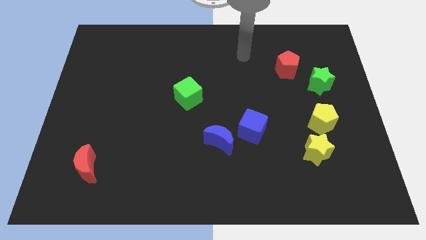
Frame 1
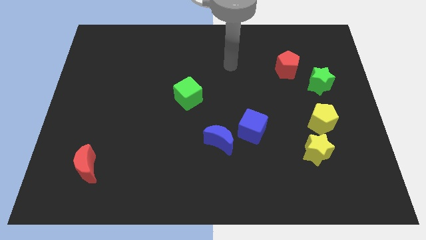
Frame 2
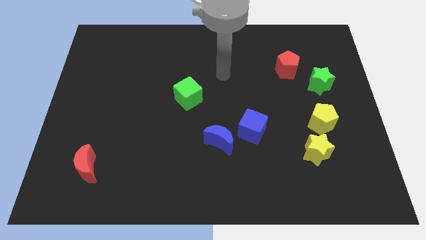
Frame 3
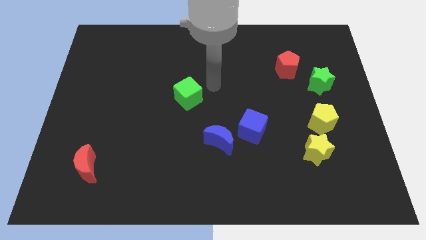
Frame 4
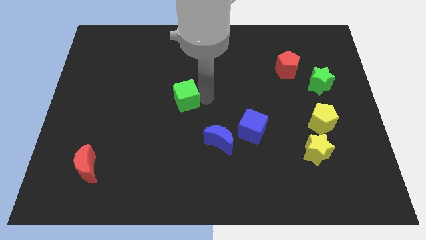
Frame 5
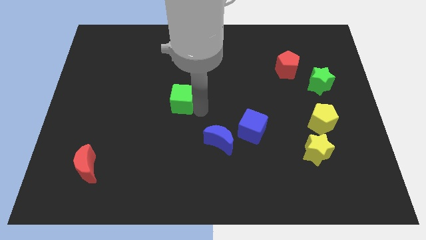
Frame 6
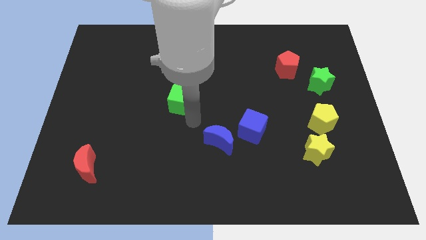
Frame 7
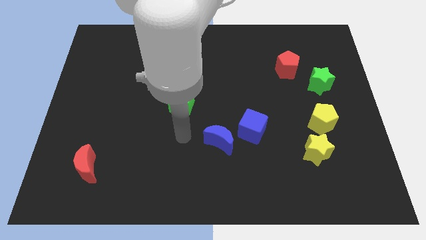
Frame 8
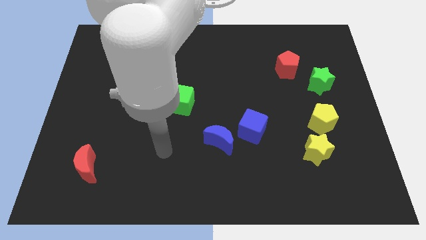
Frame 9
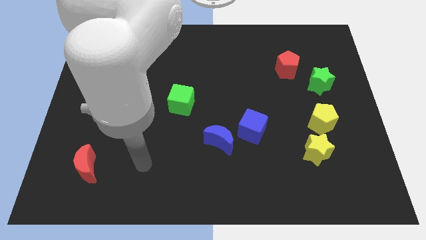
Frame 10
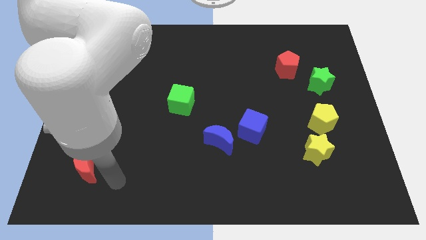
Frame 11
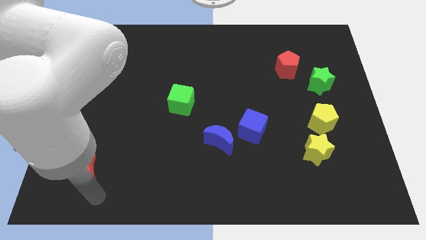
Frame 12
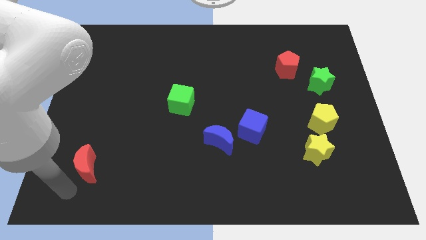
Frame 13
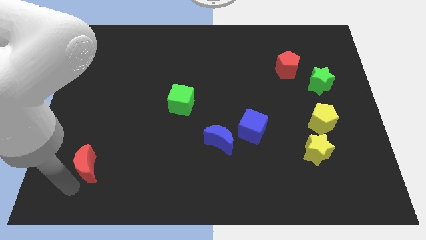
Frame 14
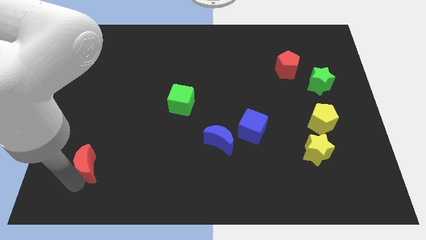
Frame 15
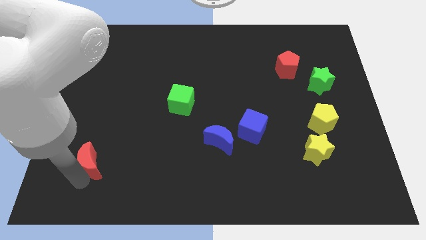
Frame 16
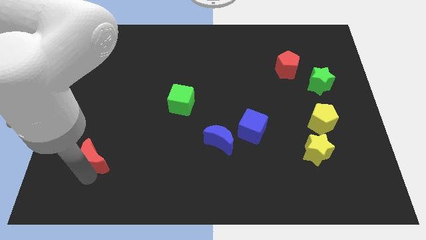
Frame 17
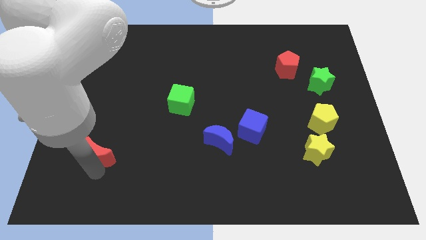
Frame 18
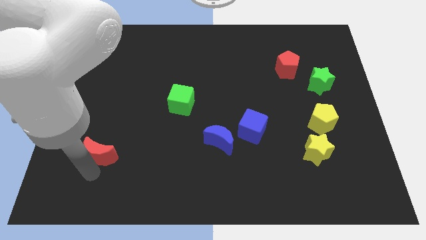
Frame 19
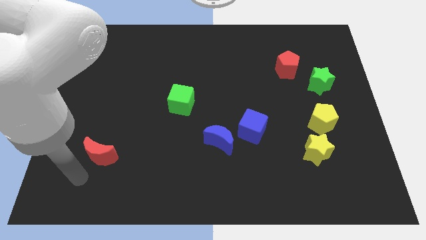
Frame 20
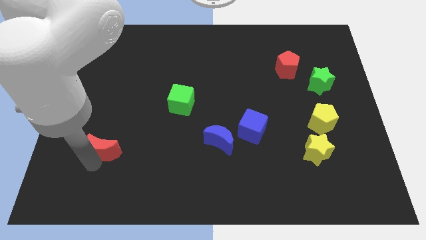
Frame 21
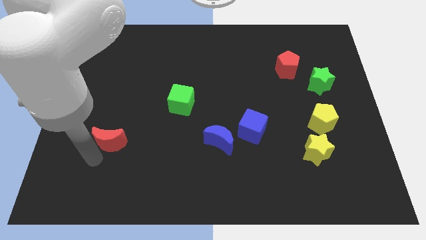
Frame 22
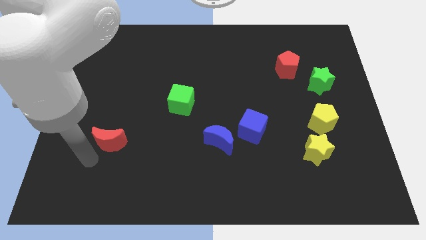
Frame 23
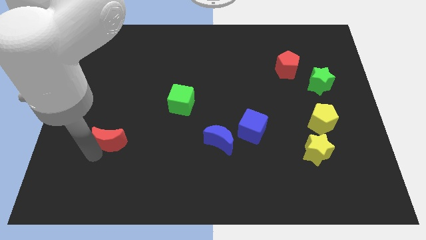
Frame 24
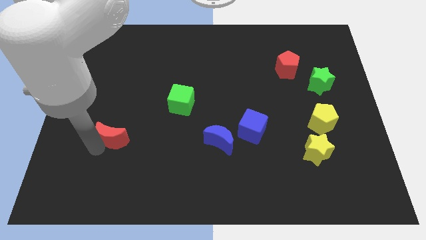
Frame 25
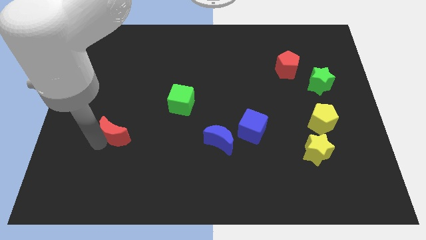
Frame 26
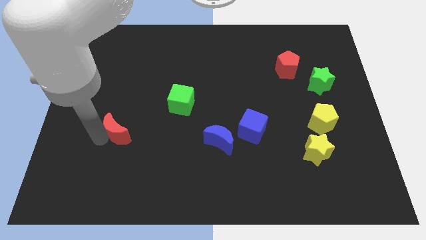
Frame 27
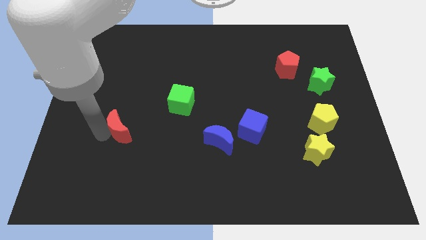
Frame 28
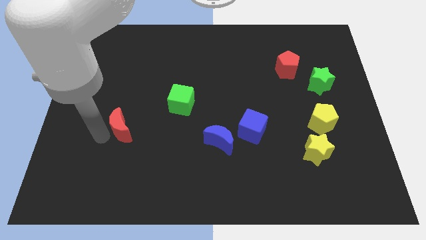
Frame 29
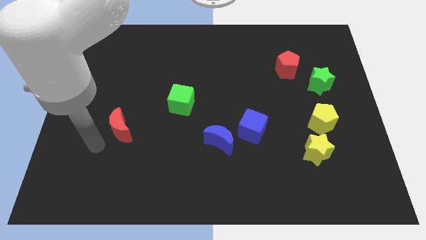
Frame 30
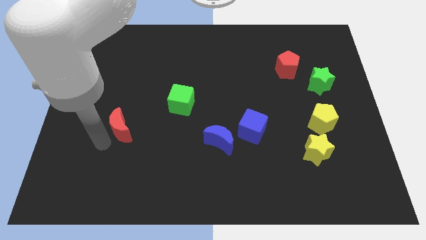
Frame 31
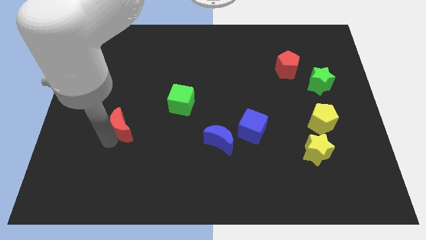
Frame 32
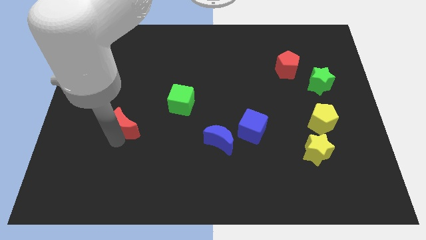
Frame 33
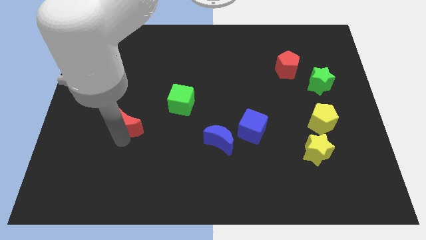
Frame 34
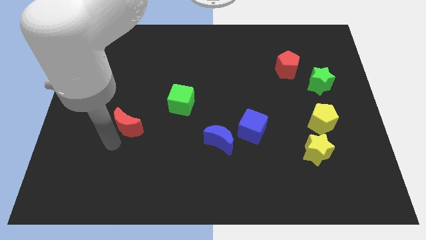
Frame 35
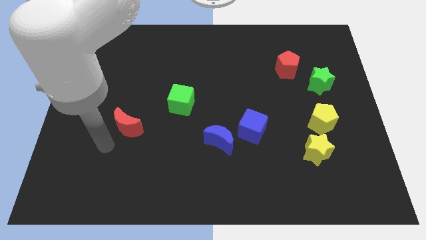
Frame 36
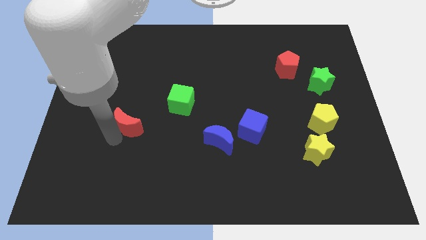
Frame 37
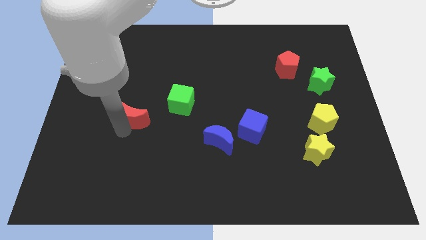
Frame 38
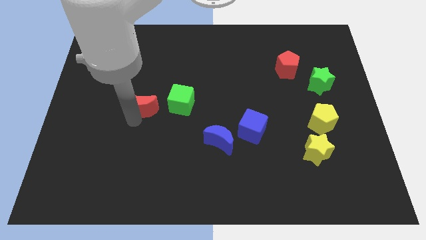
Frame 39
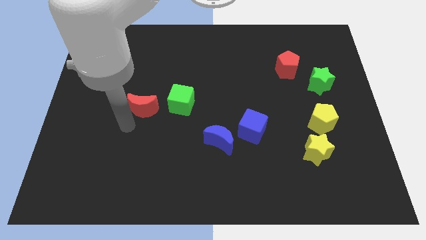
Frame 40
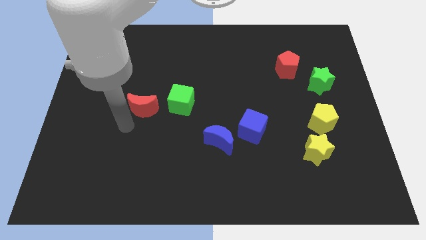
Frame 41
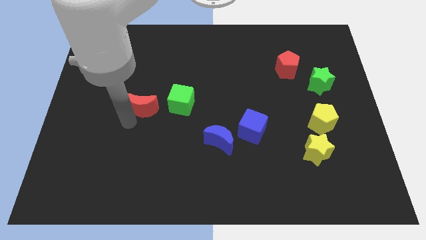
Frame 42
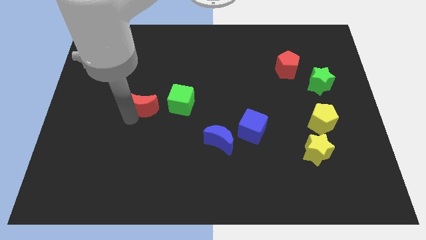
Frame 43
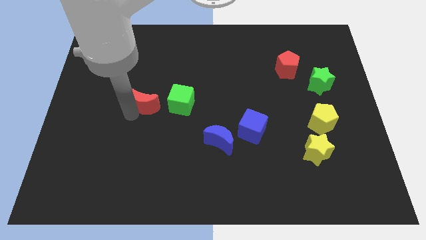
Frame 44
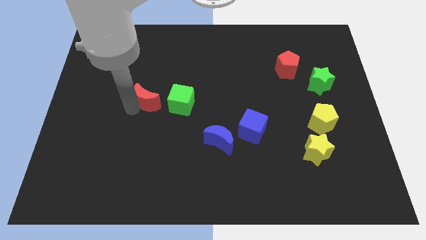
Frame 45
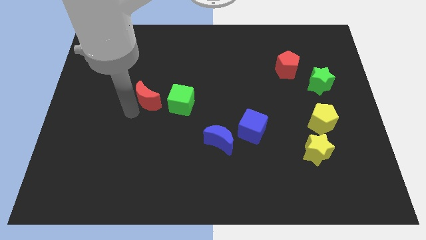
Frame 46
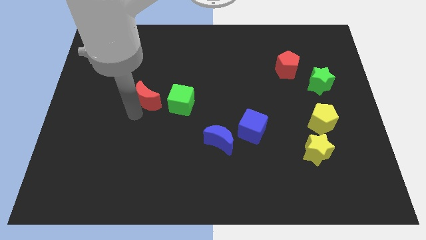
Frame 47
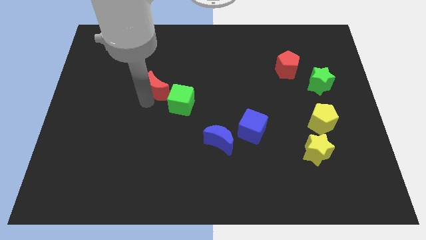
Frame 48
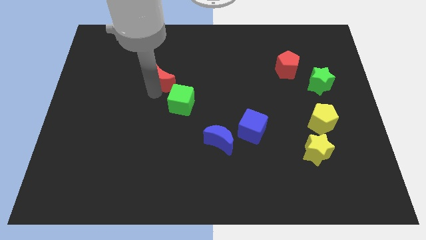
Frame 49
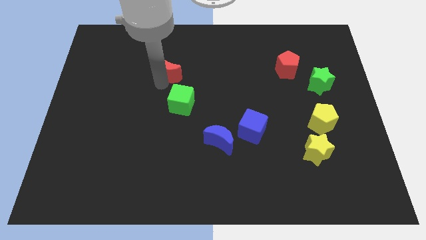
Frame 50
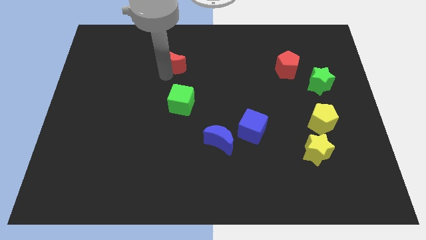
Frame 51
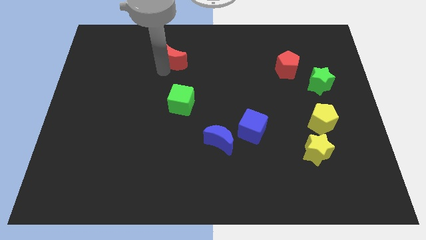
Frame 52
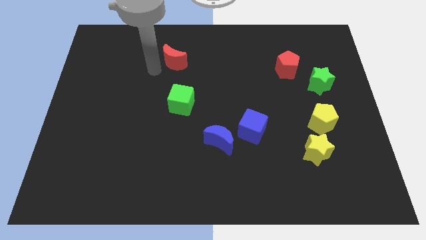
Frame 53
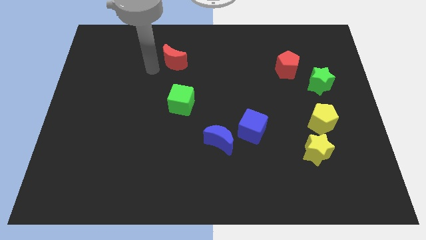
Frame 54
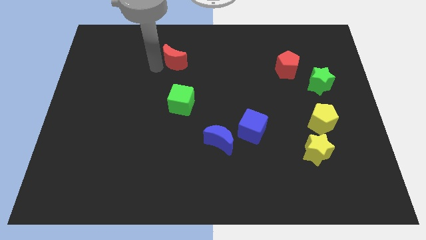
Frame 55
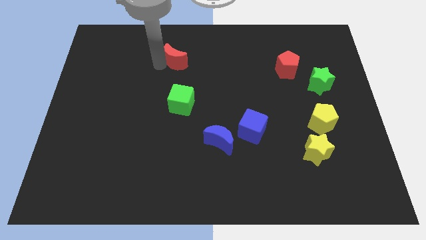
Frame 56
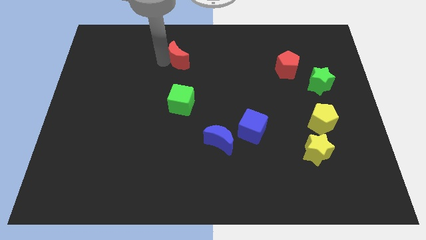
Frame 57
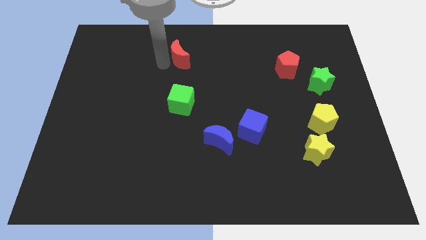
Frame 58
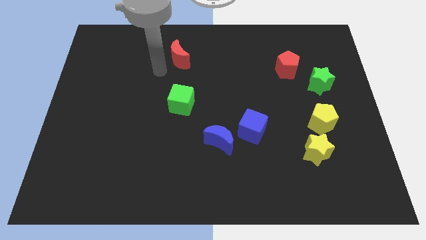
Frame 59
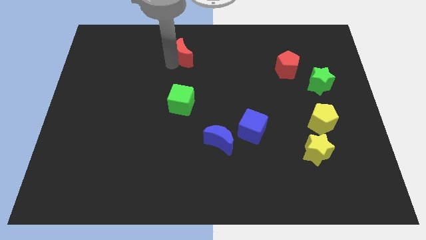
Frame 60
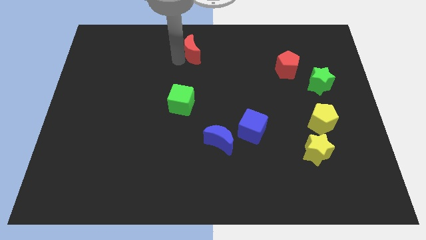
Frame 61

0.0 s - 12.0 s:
push the red moon to the top side

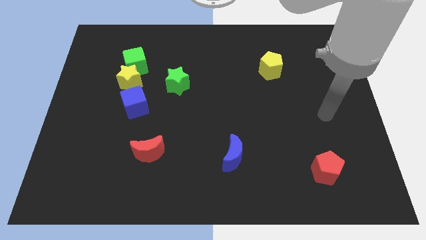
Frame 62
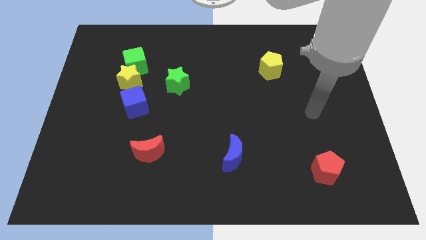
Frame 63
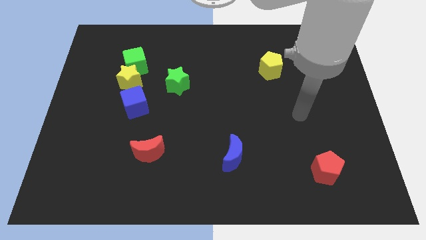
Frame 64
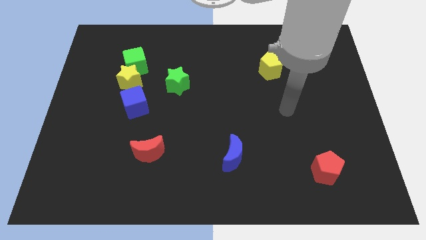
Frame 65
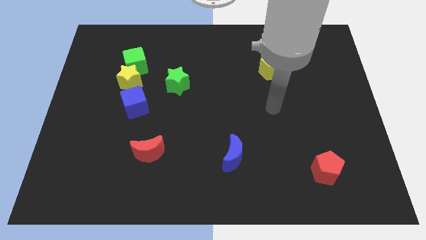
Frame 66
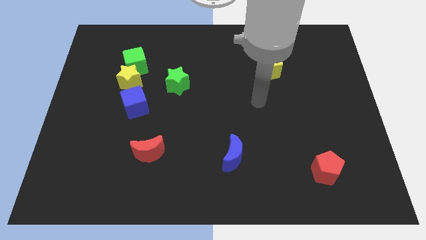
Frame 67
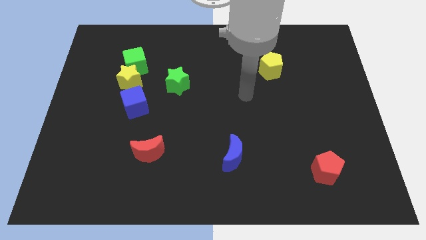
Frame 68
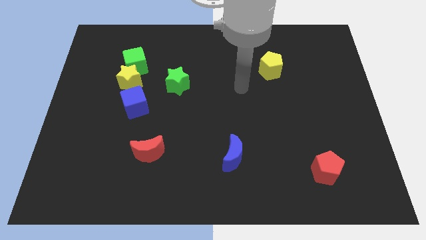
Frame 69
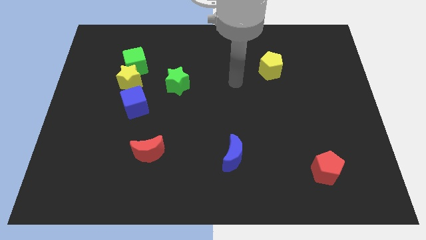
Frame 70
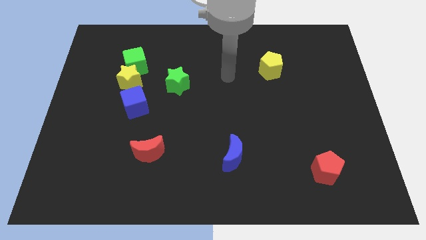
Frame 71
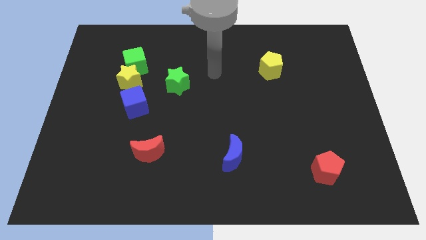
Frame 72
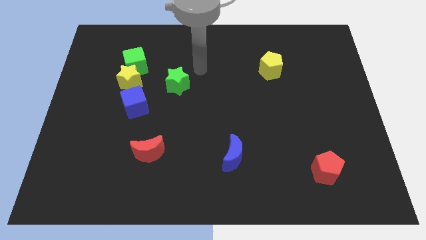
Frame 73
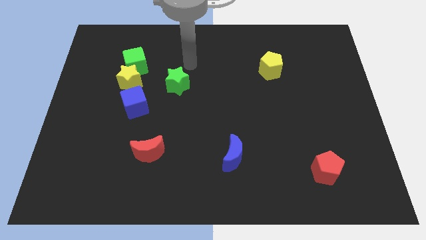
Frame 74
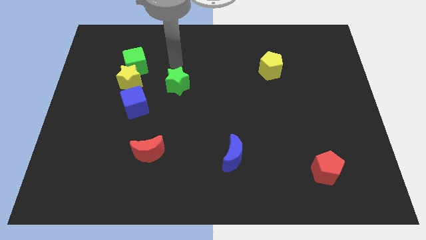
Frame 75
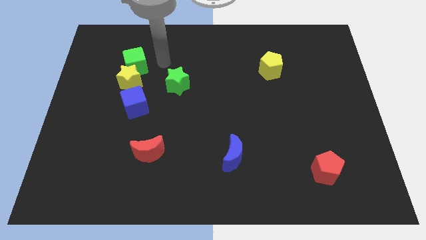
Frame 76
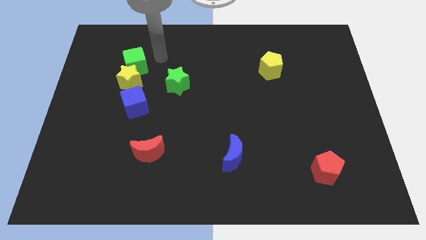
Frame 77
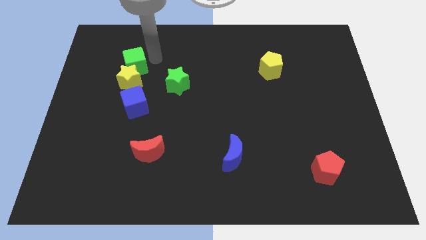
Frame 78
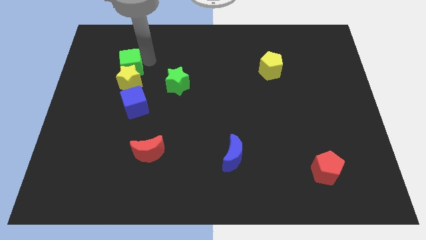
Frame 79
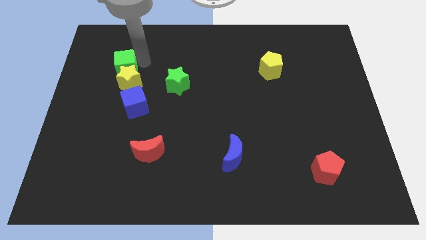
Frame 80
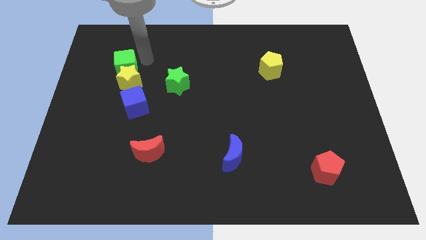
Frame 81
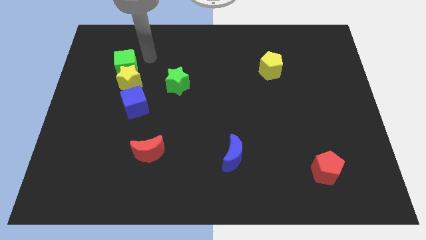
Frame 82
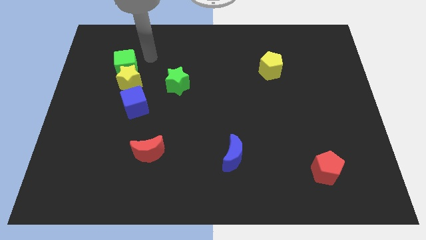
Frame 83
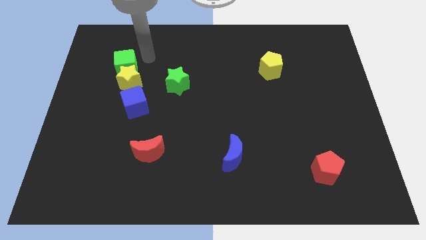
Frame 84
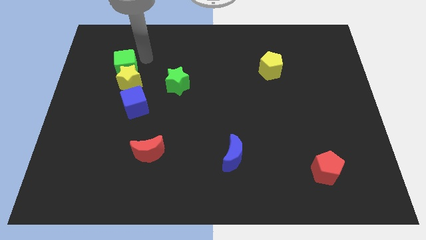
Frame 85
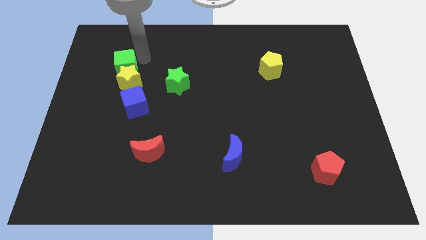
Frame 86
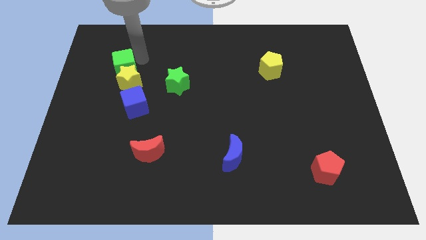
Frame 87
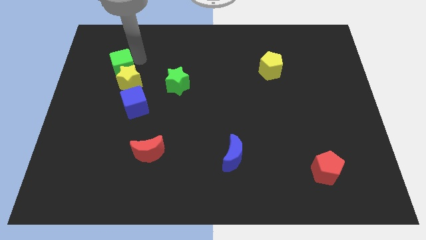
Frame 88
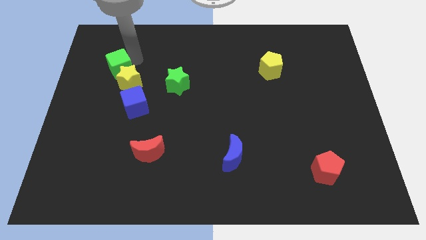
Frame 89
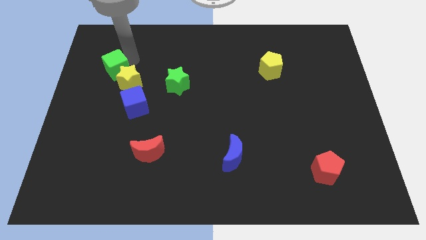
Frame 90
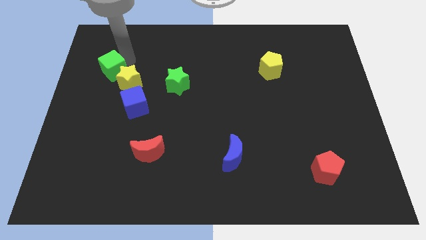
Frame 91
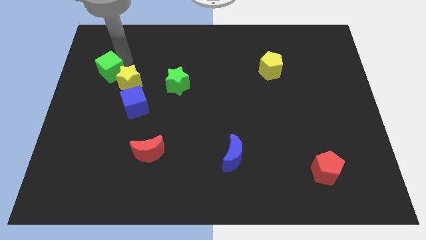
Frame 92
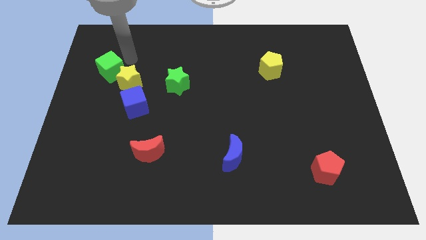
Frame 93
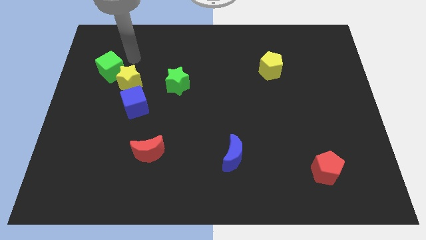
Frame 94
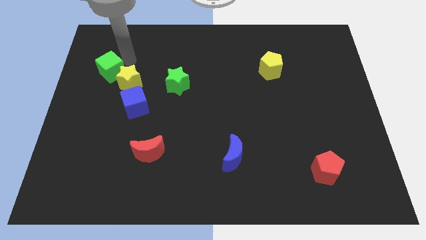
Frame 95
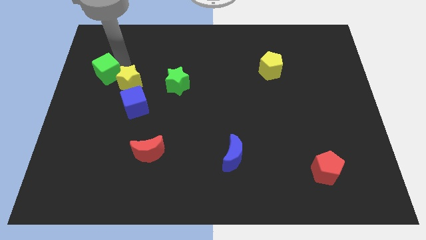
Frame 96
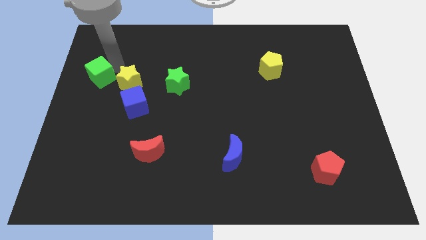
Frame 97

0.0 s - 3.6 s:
slide the green cube to the left side
